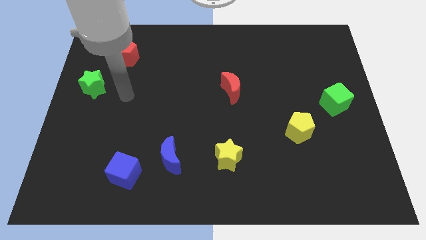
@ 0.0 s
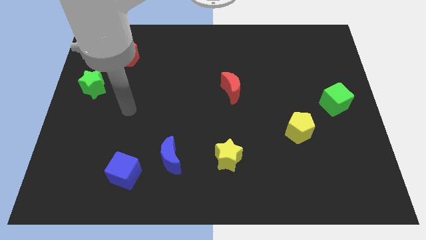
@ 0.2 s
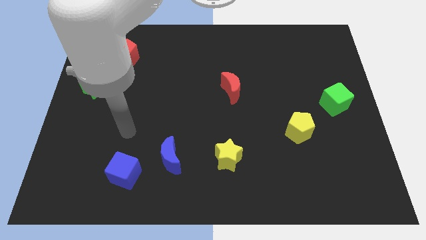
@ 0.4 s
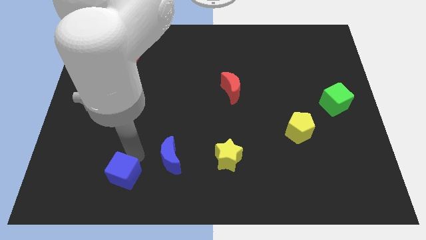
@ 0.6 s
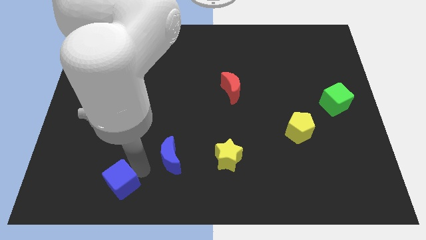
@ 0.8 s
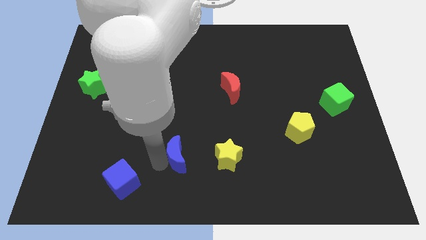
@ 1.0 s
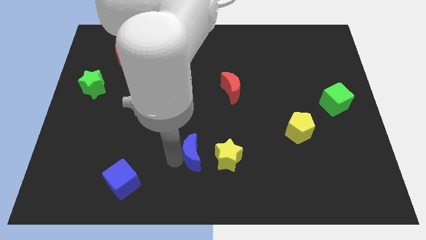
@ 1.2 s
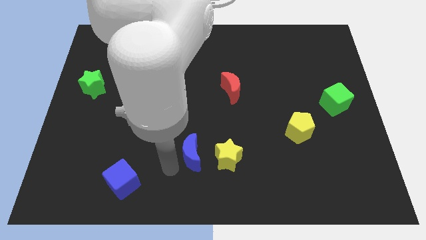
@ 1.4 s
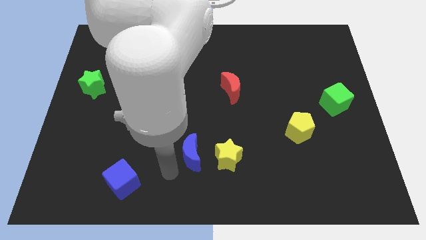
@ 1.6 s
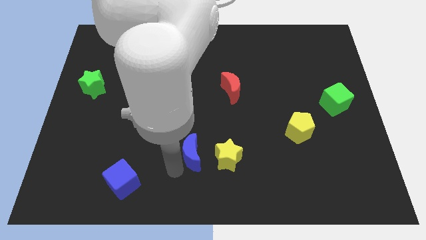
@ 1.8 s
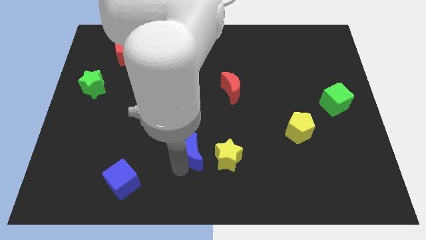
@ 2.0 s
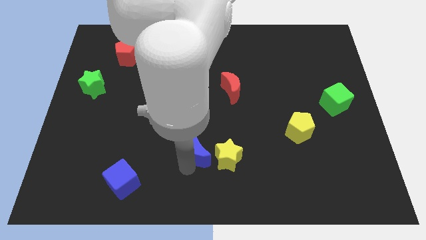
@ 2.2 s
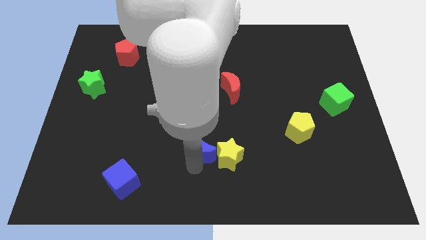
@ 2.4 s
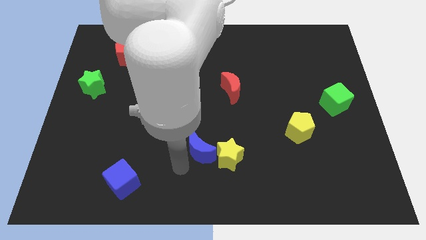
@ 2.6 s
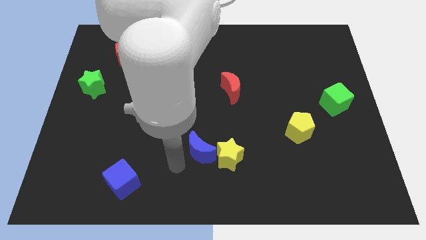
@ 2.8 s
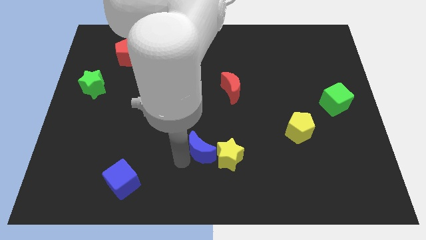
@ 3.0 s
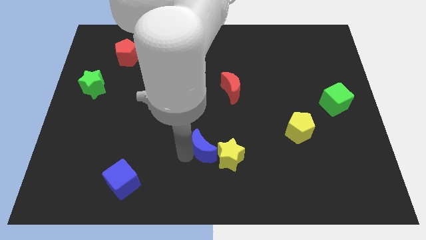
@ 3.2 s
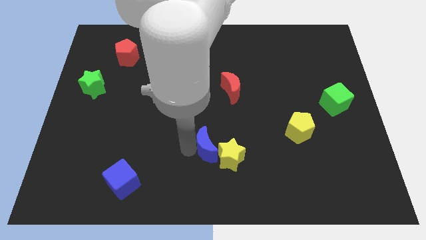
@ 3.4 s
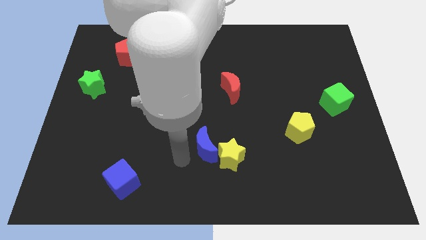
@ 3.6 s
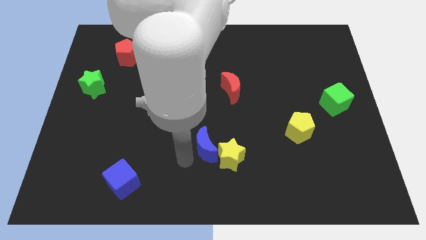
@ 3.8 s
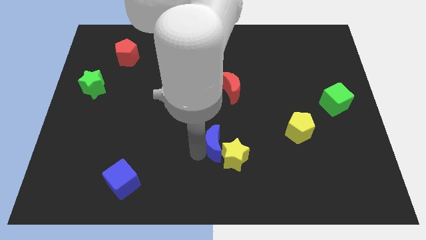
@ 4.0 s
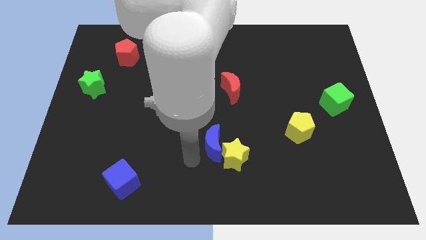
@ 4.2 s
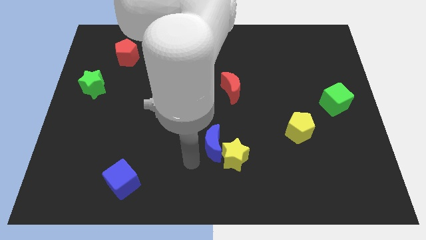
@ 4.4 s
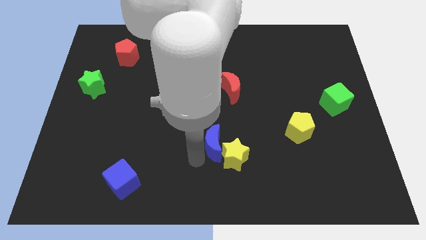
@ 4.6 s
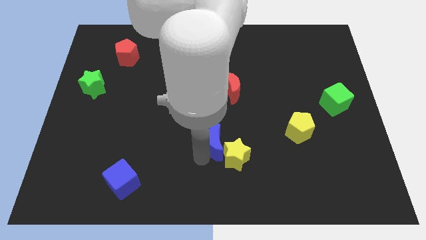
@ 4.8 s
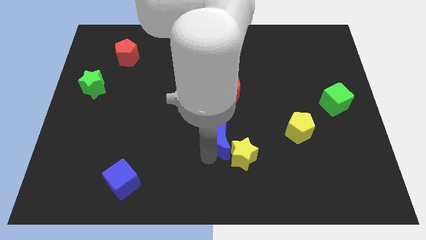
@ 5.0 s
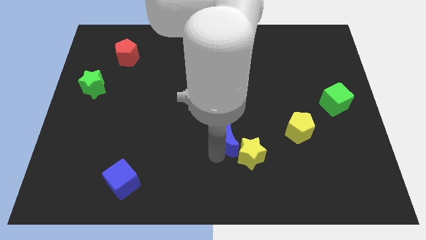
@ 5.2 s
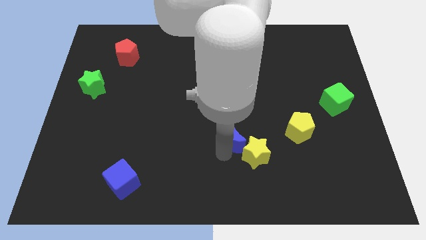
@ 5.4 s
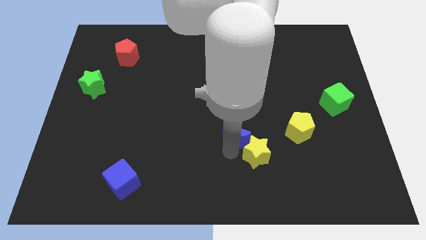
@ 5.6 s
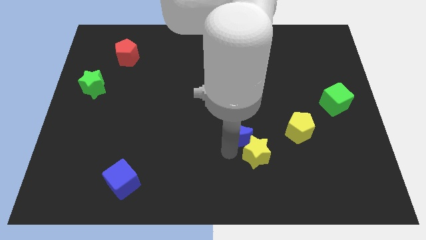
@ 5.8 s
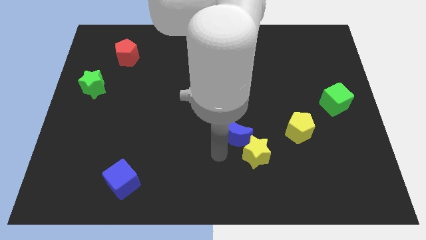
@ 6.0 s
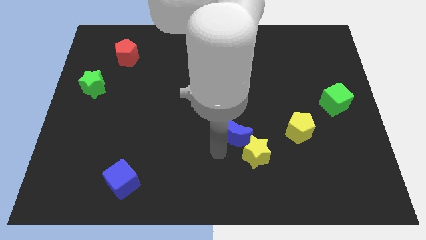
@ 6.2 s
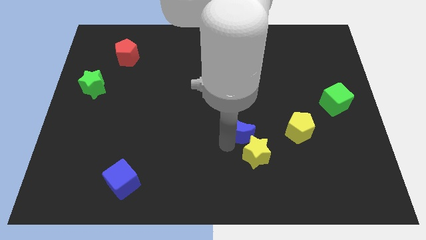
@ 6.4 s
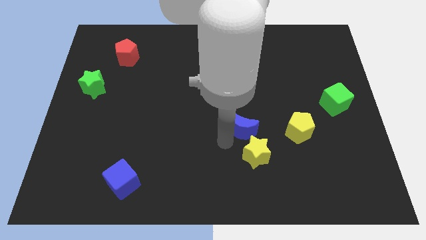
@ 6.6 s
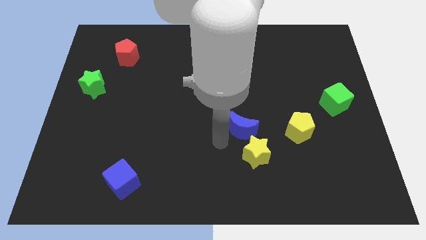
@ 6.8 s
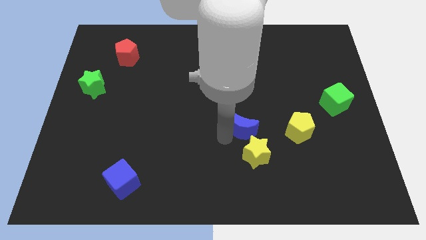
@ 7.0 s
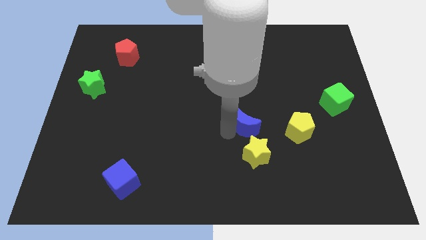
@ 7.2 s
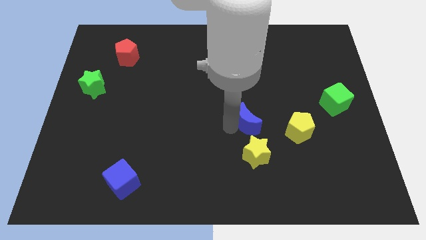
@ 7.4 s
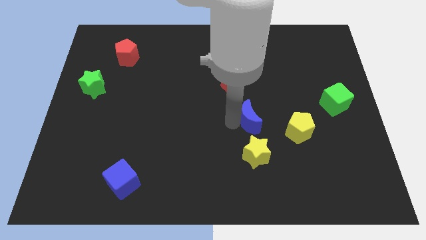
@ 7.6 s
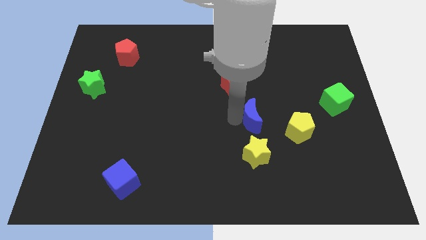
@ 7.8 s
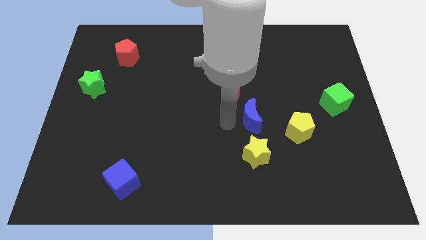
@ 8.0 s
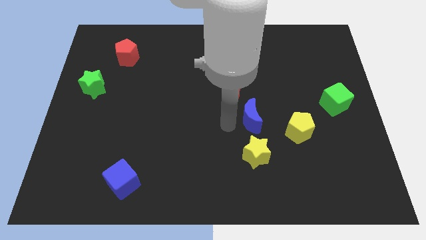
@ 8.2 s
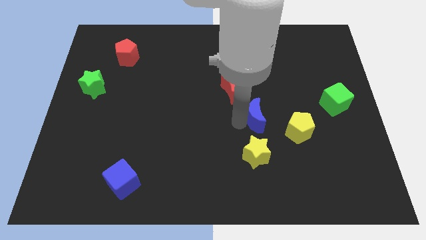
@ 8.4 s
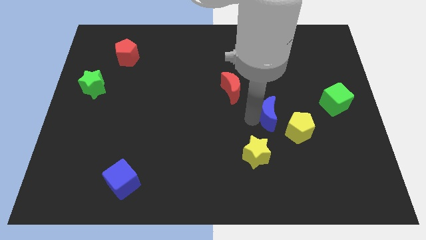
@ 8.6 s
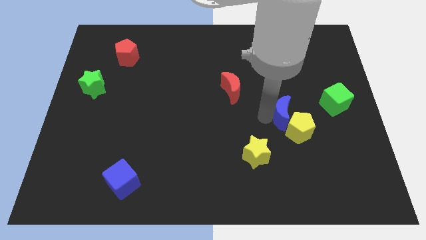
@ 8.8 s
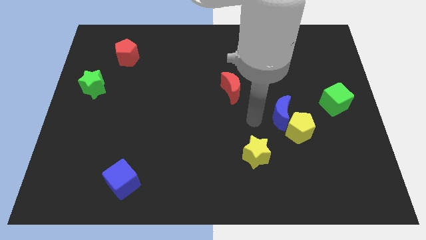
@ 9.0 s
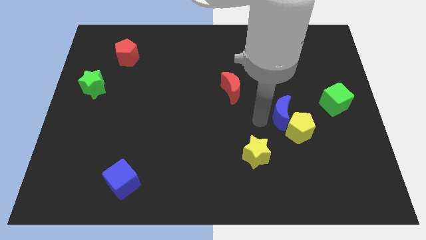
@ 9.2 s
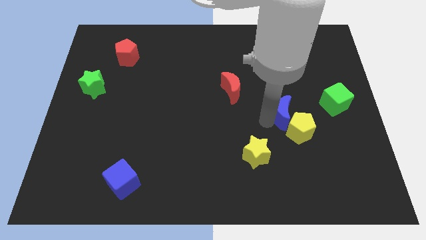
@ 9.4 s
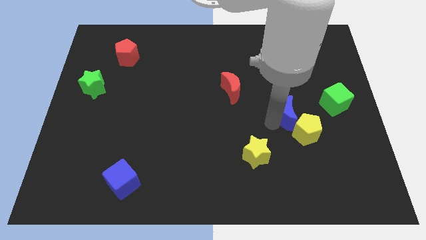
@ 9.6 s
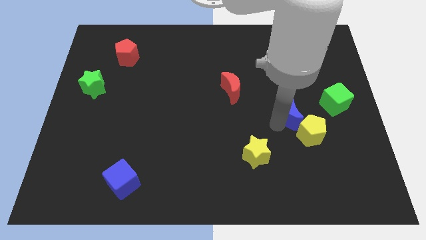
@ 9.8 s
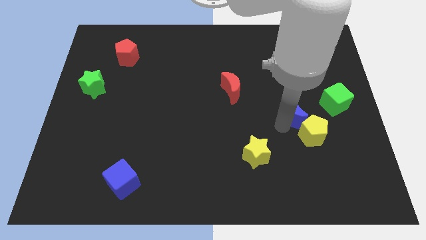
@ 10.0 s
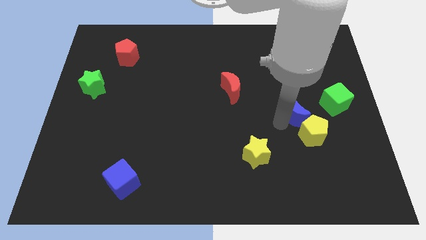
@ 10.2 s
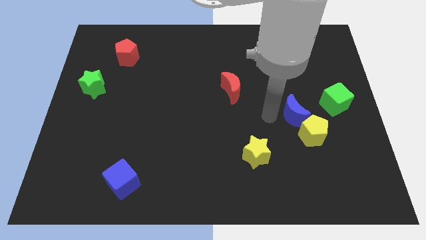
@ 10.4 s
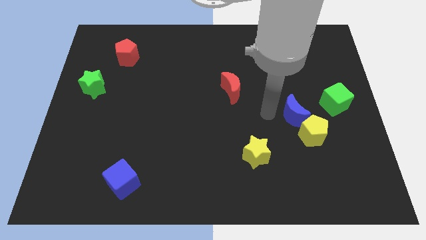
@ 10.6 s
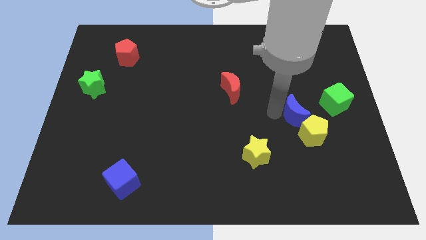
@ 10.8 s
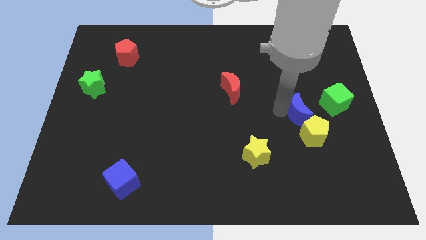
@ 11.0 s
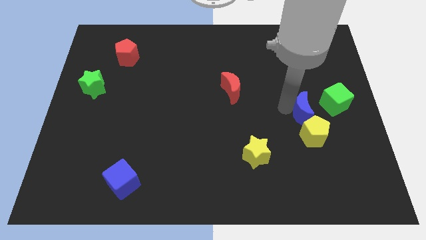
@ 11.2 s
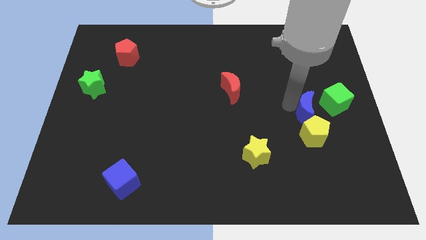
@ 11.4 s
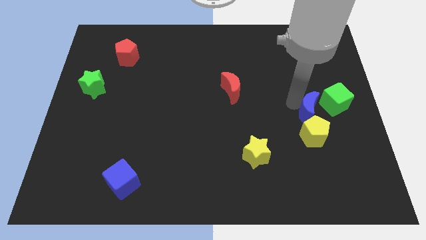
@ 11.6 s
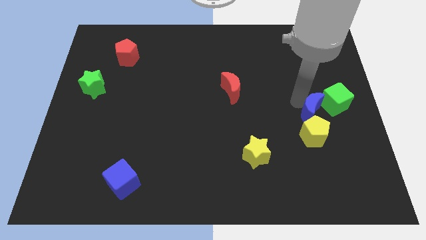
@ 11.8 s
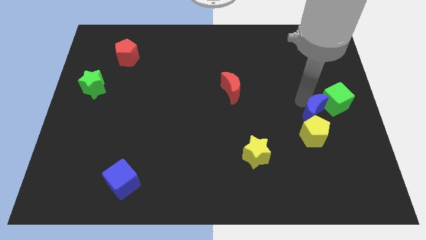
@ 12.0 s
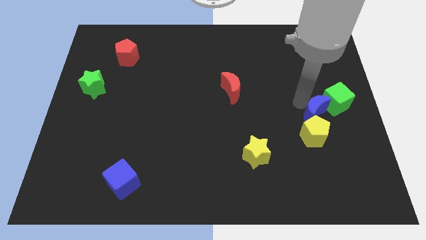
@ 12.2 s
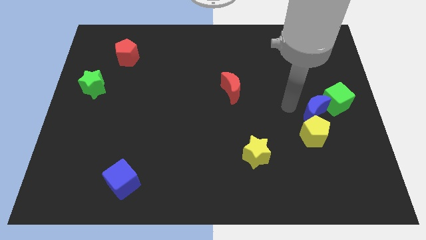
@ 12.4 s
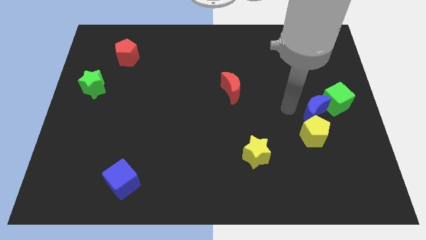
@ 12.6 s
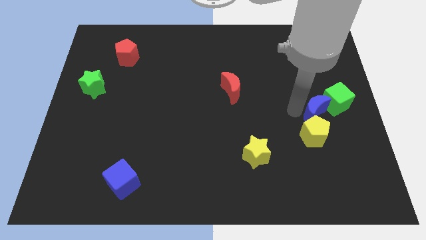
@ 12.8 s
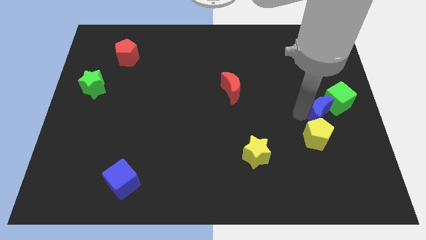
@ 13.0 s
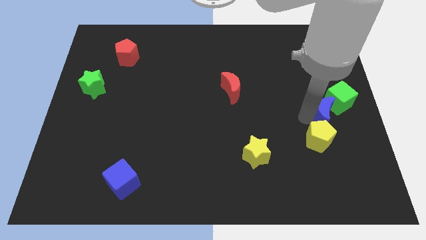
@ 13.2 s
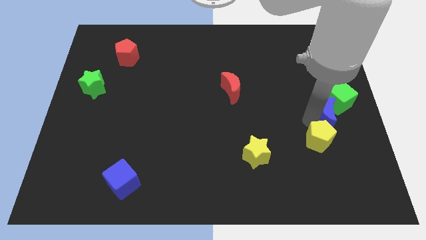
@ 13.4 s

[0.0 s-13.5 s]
move the blue moon to the right side
